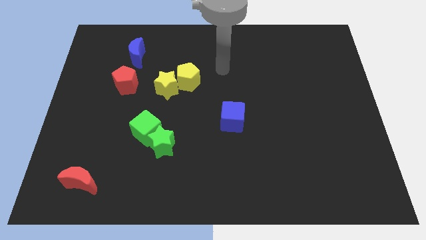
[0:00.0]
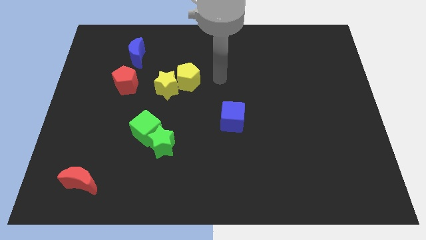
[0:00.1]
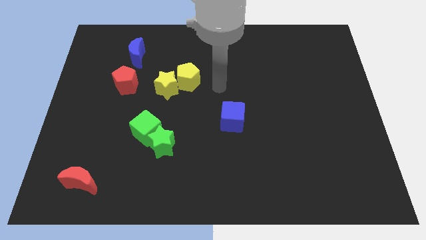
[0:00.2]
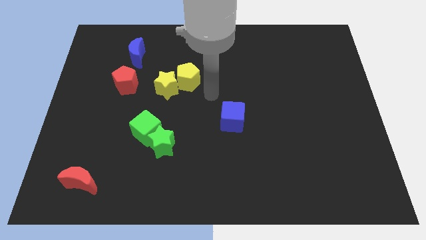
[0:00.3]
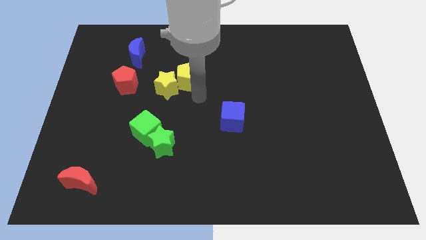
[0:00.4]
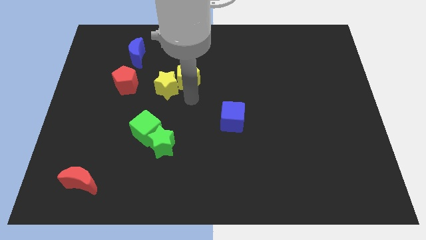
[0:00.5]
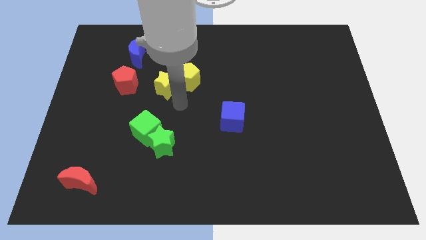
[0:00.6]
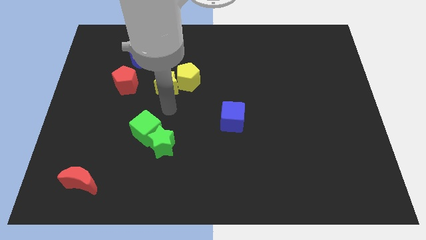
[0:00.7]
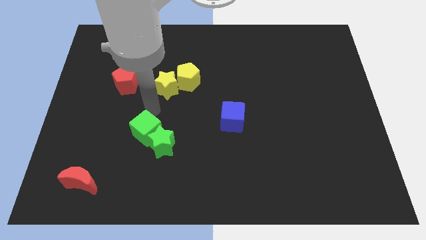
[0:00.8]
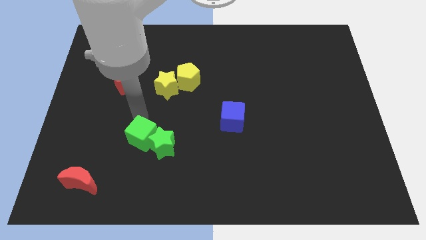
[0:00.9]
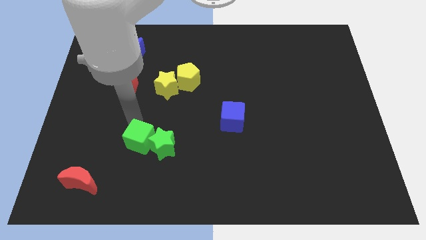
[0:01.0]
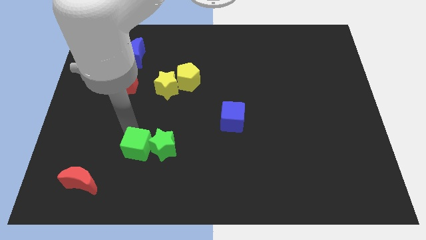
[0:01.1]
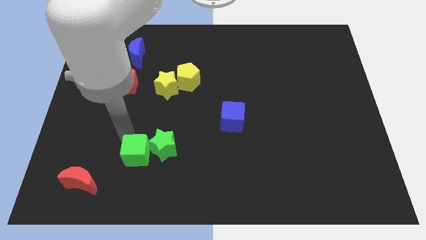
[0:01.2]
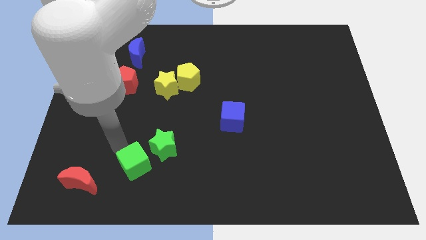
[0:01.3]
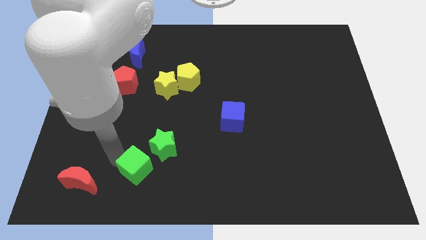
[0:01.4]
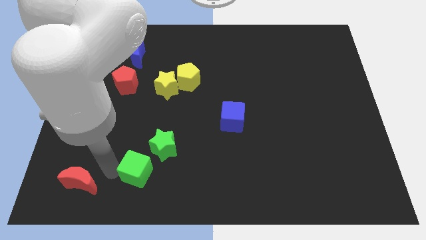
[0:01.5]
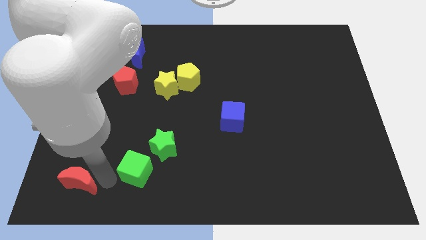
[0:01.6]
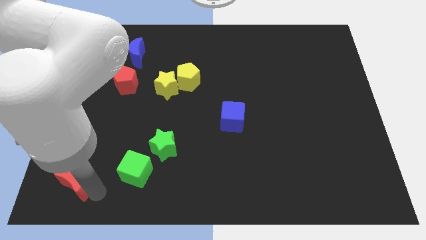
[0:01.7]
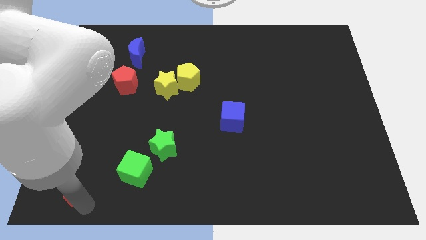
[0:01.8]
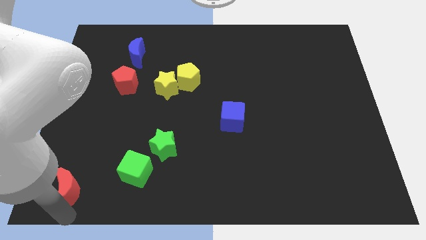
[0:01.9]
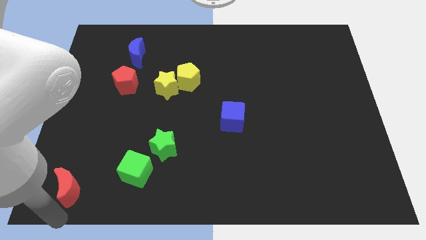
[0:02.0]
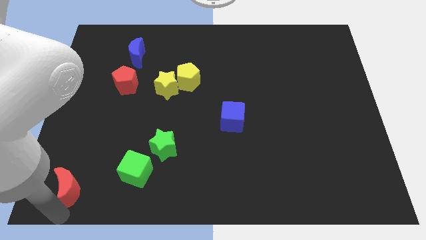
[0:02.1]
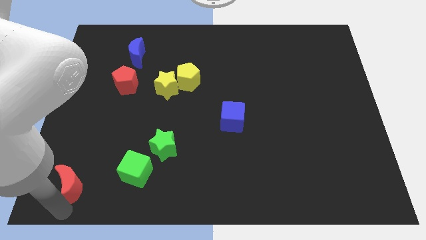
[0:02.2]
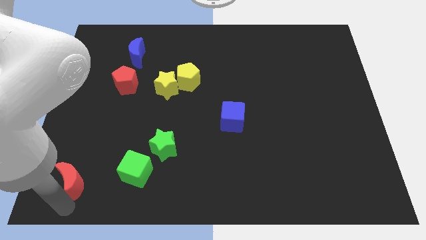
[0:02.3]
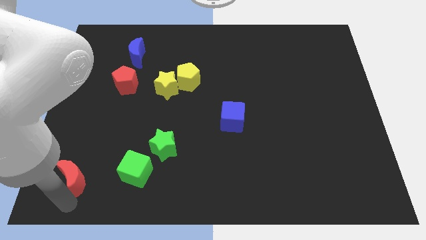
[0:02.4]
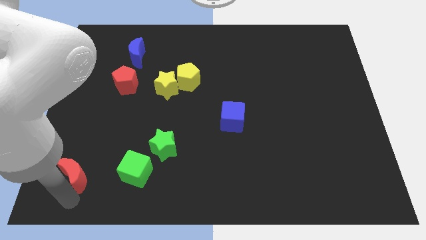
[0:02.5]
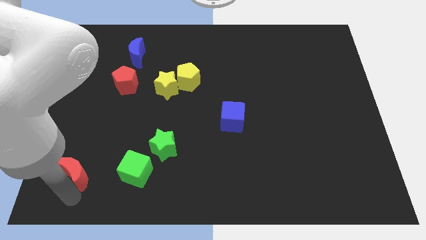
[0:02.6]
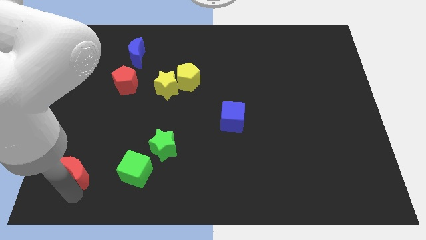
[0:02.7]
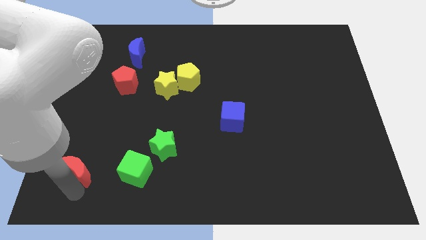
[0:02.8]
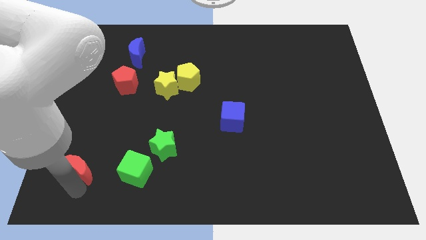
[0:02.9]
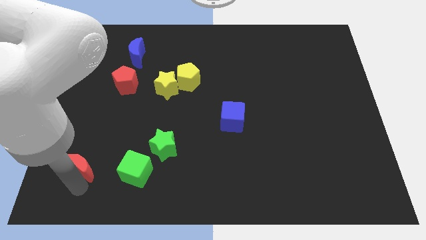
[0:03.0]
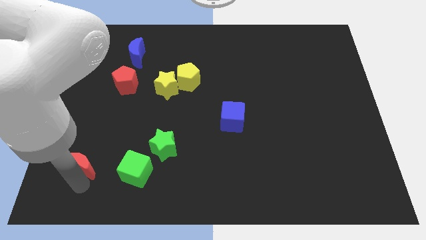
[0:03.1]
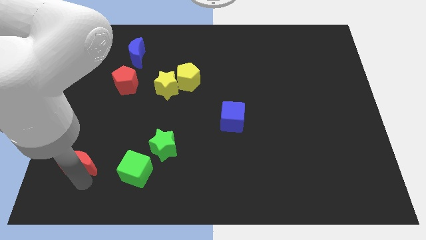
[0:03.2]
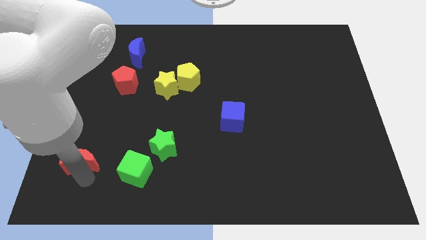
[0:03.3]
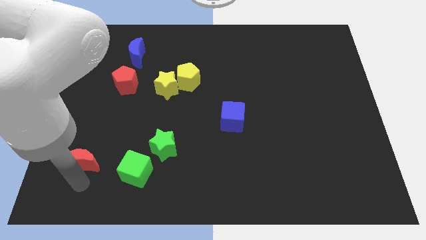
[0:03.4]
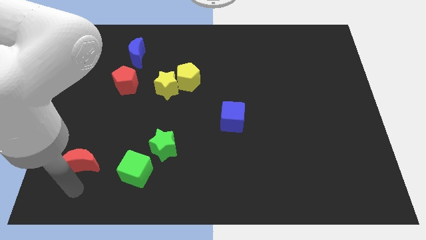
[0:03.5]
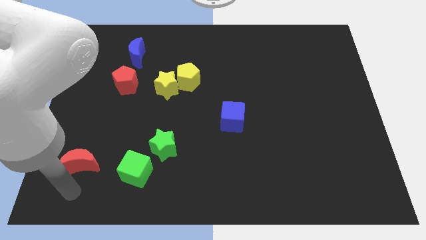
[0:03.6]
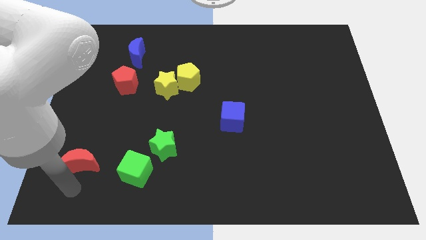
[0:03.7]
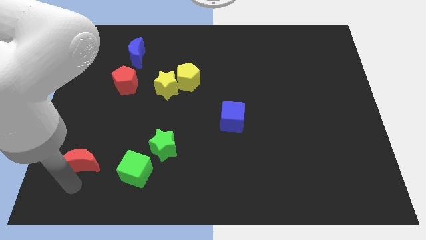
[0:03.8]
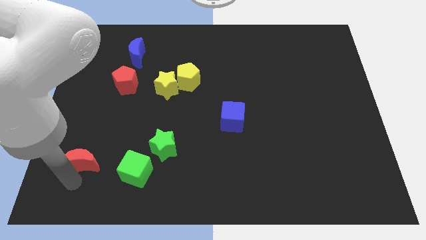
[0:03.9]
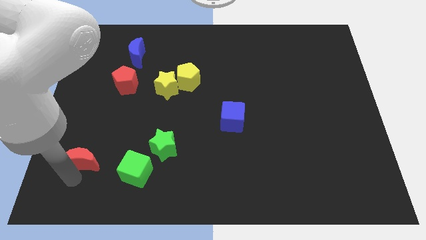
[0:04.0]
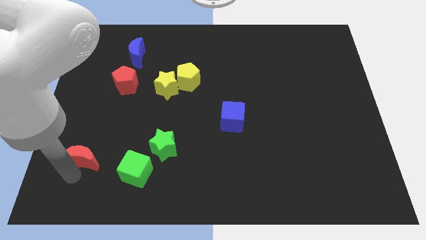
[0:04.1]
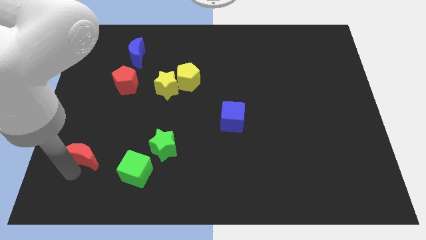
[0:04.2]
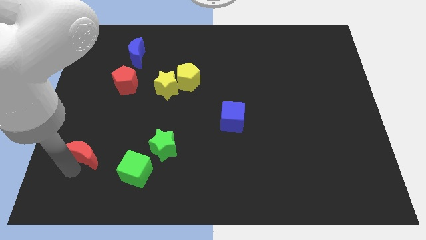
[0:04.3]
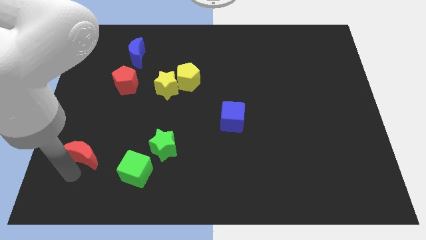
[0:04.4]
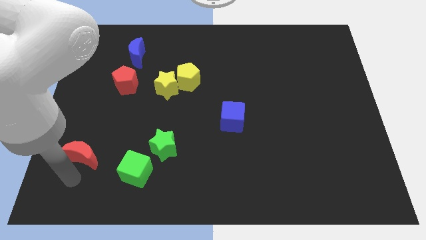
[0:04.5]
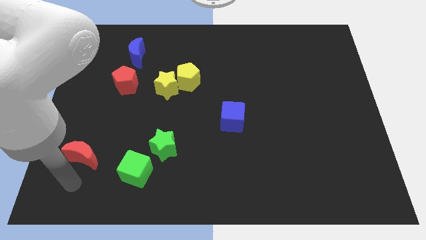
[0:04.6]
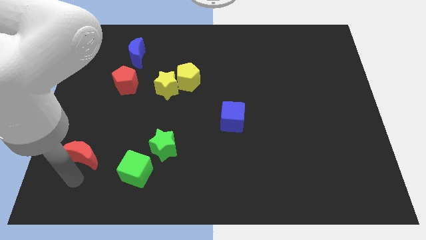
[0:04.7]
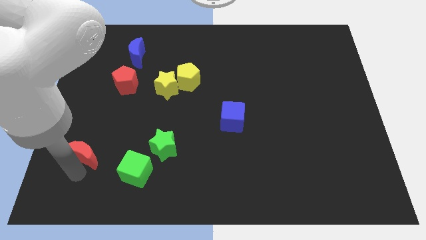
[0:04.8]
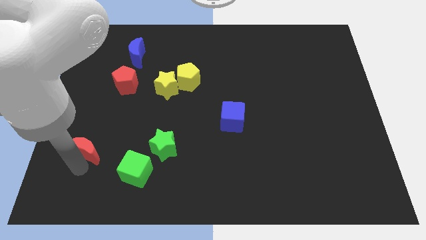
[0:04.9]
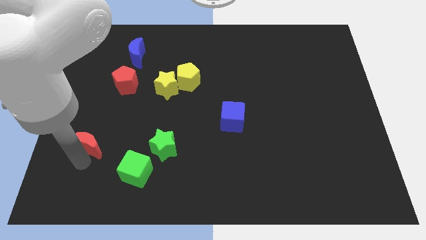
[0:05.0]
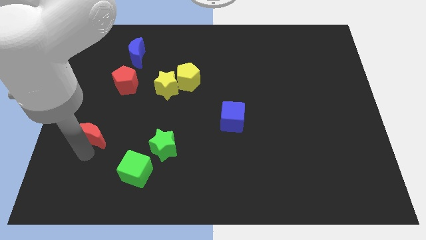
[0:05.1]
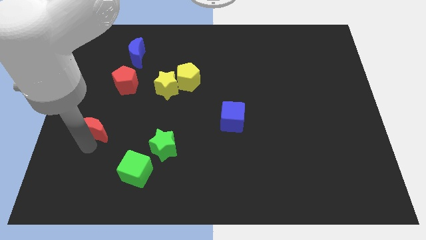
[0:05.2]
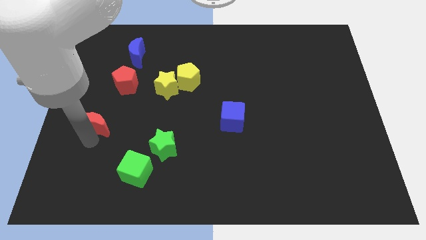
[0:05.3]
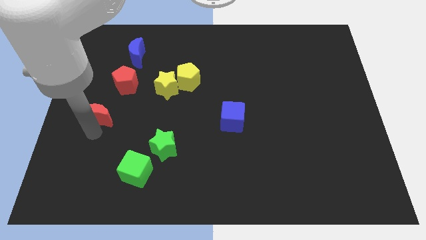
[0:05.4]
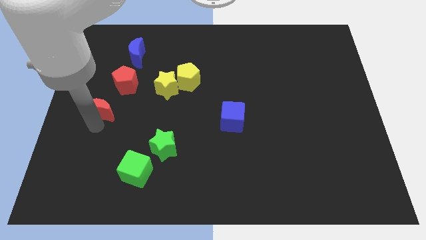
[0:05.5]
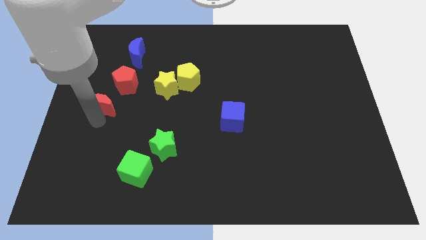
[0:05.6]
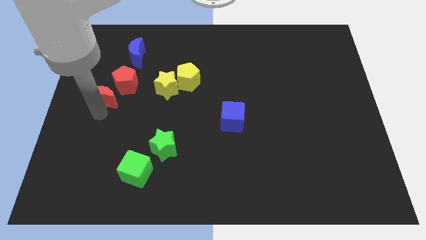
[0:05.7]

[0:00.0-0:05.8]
move the red moon up

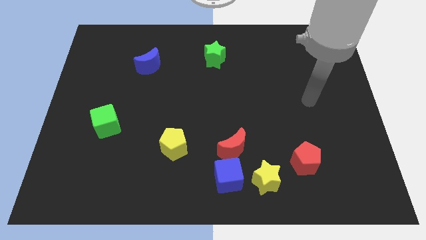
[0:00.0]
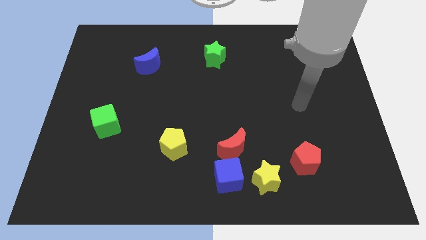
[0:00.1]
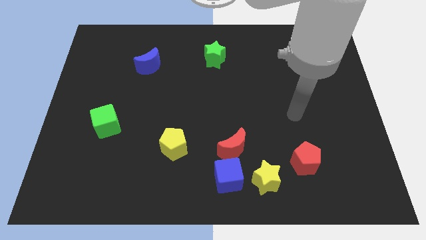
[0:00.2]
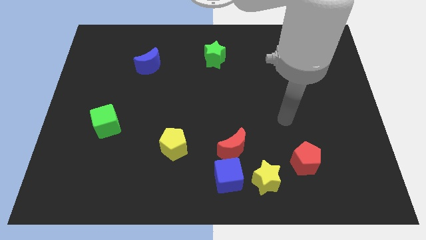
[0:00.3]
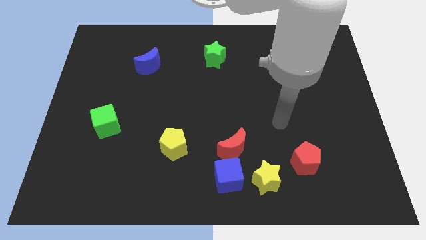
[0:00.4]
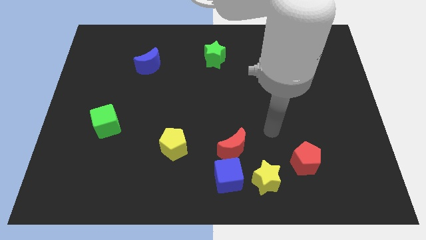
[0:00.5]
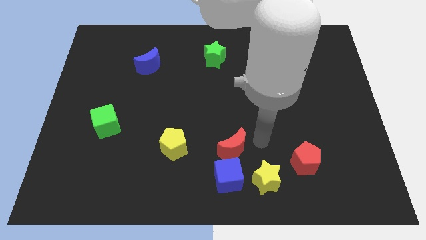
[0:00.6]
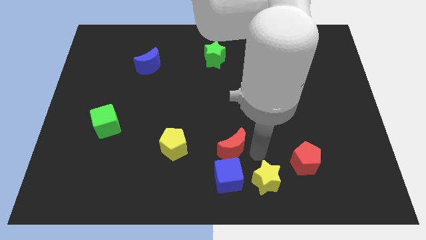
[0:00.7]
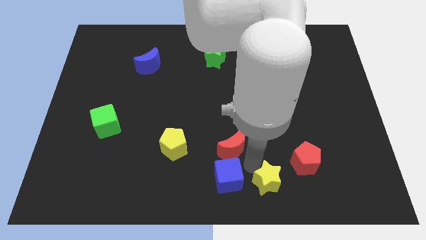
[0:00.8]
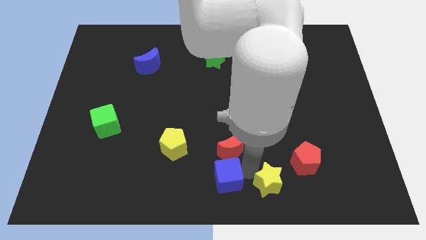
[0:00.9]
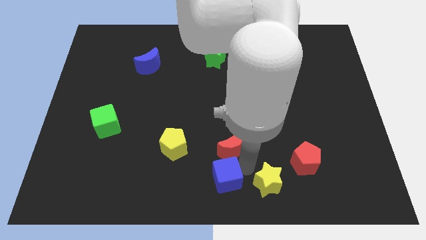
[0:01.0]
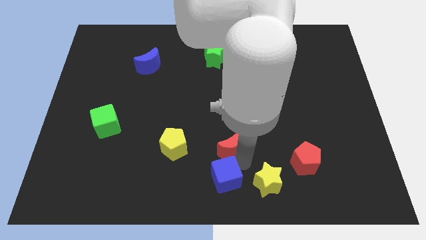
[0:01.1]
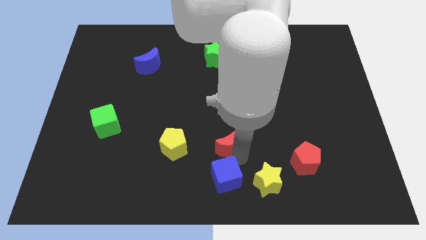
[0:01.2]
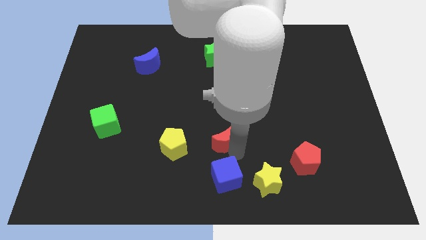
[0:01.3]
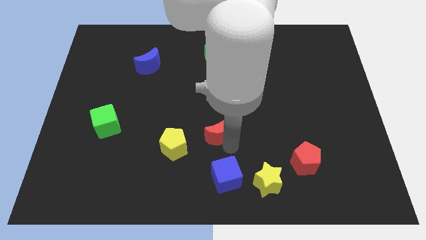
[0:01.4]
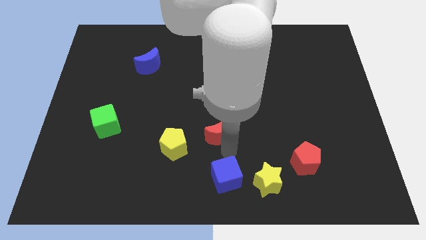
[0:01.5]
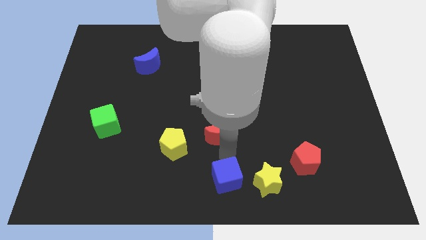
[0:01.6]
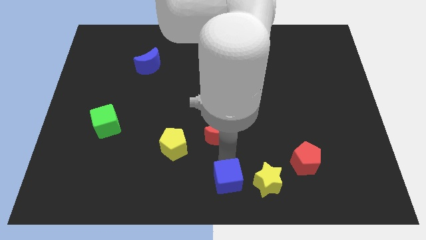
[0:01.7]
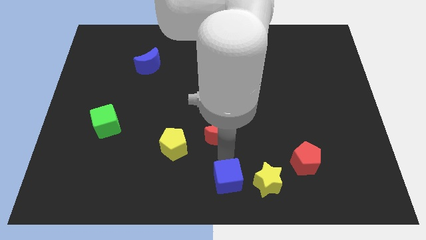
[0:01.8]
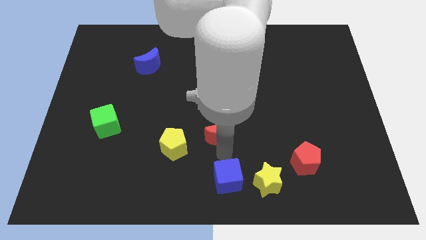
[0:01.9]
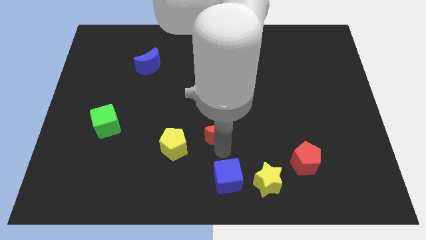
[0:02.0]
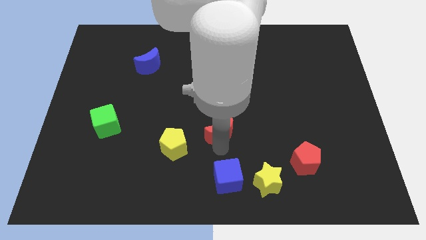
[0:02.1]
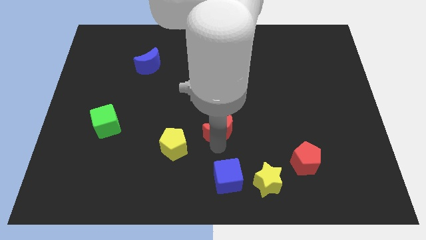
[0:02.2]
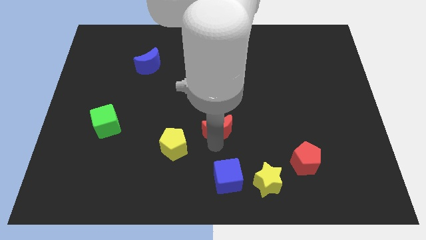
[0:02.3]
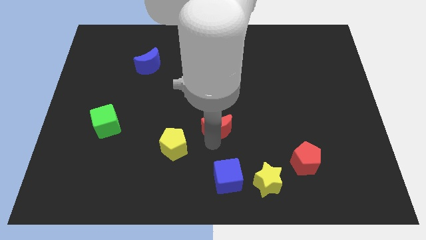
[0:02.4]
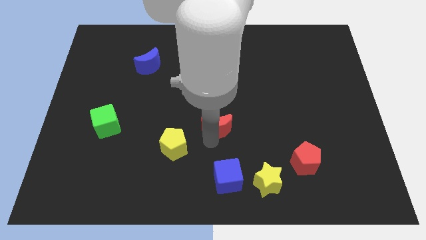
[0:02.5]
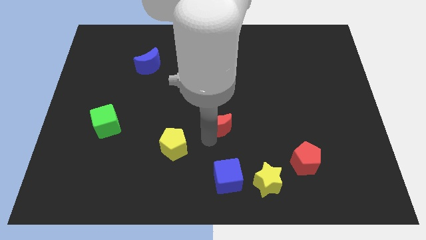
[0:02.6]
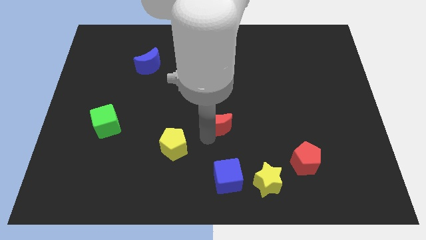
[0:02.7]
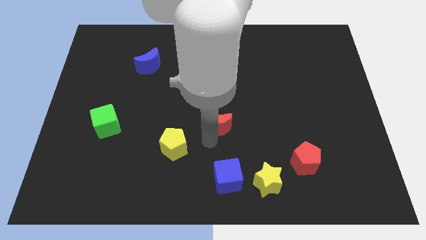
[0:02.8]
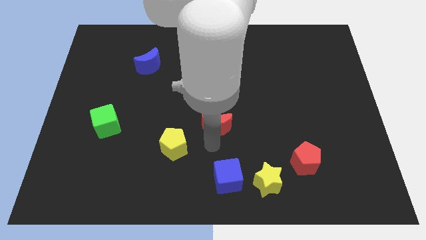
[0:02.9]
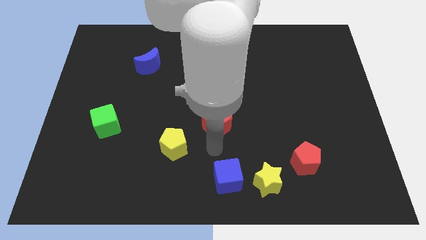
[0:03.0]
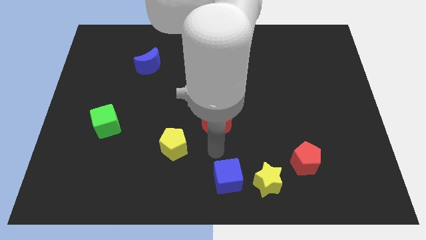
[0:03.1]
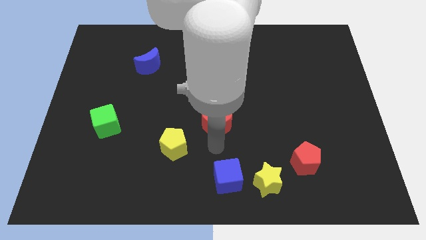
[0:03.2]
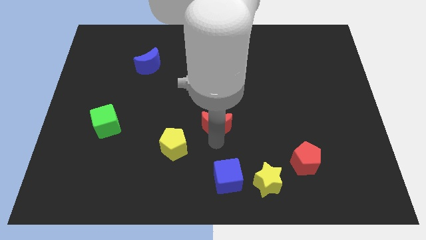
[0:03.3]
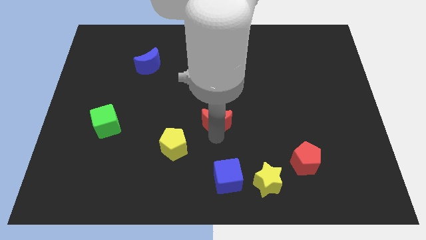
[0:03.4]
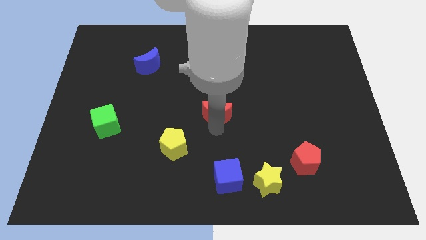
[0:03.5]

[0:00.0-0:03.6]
move the red moon somewhat up
